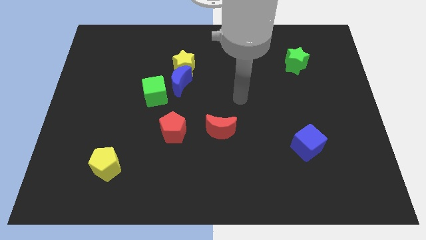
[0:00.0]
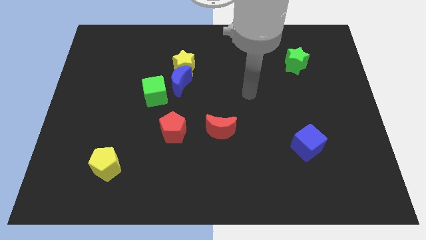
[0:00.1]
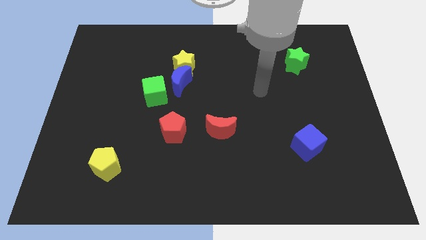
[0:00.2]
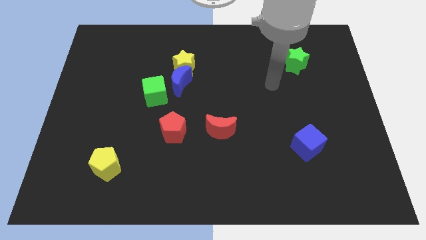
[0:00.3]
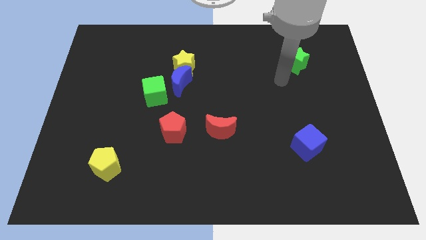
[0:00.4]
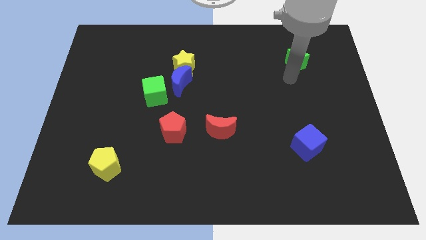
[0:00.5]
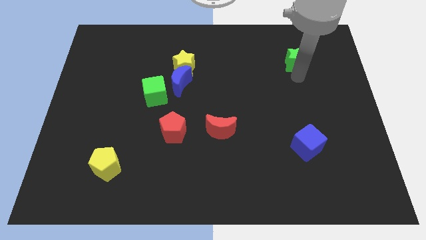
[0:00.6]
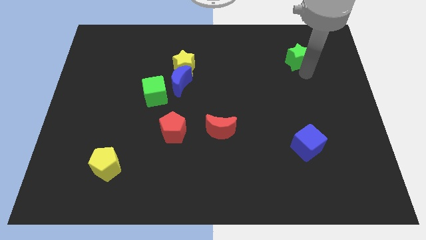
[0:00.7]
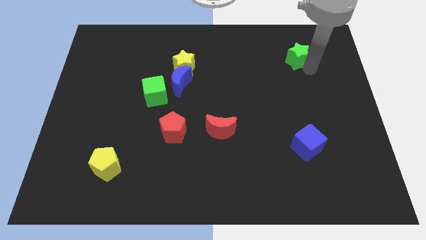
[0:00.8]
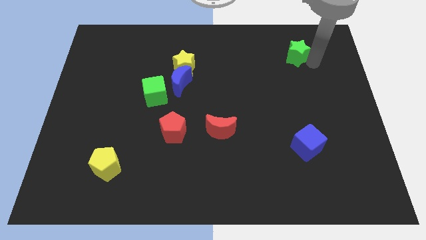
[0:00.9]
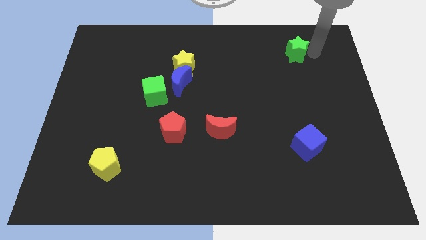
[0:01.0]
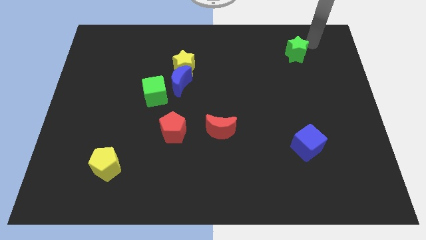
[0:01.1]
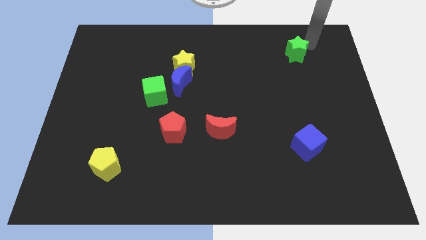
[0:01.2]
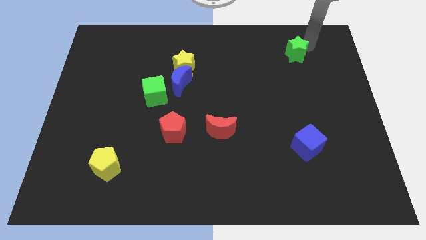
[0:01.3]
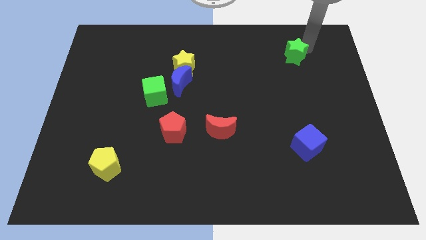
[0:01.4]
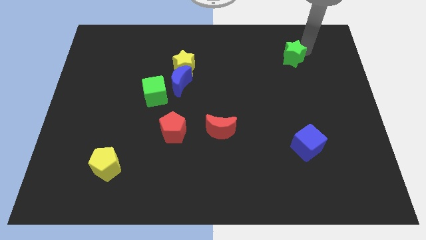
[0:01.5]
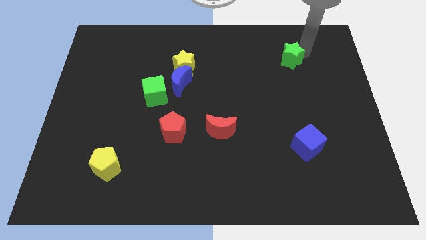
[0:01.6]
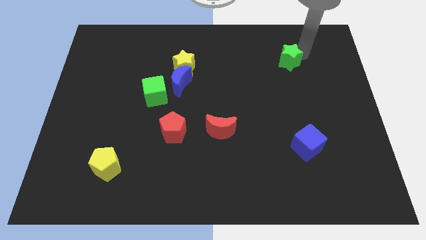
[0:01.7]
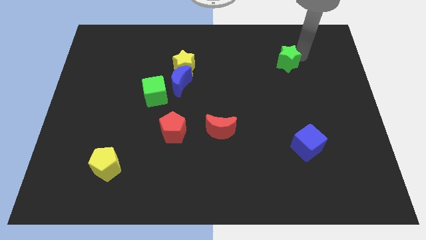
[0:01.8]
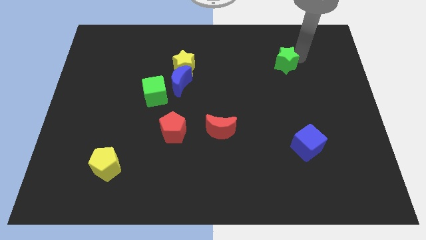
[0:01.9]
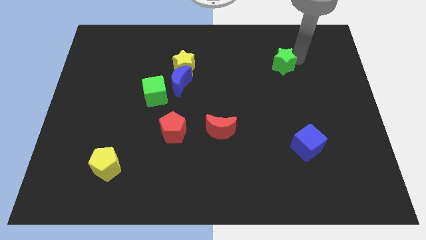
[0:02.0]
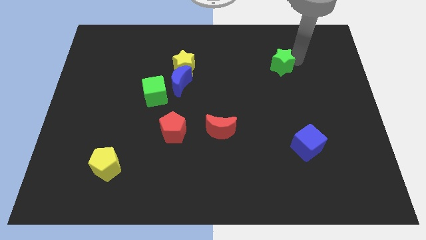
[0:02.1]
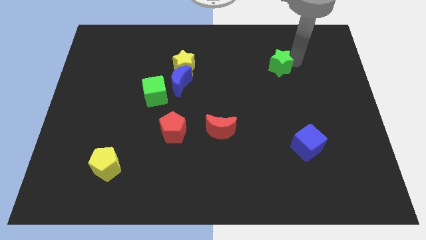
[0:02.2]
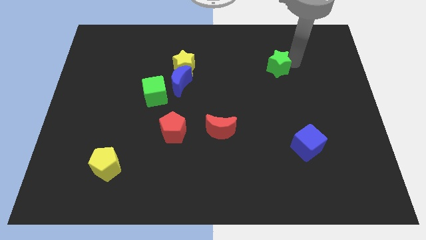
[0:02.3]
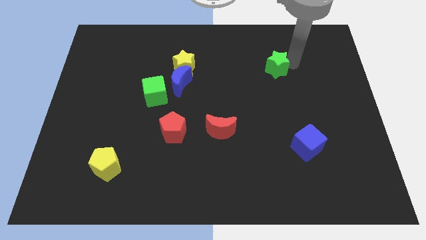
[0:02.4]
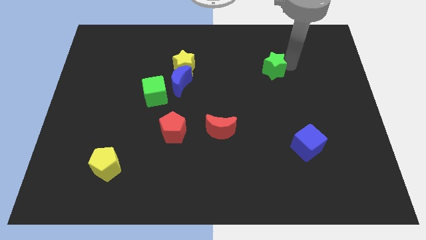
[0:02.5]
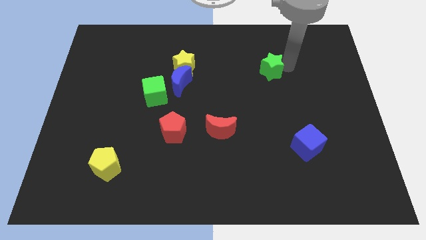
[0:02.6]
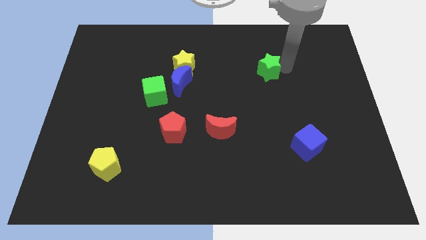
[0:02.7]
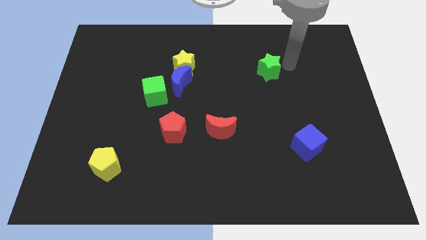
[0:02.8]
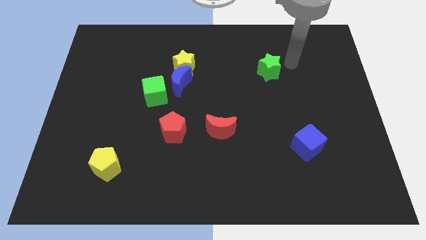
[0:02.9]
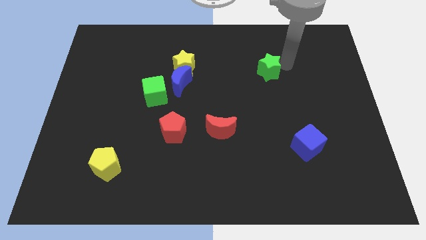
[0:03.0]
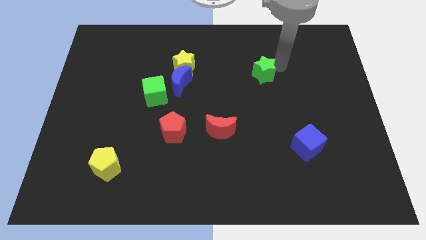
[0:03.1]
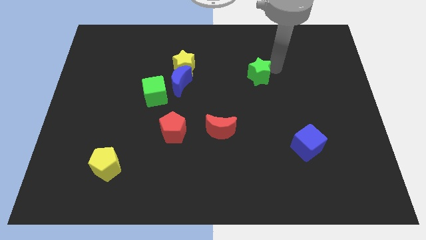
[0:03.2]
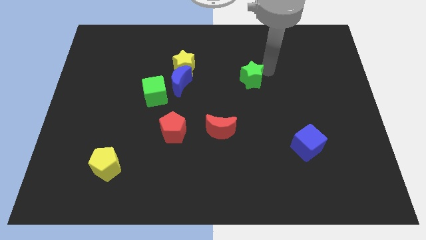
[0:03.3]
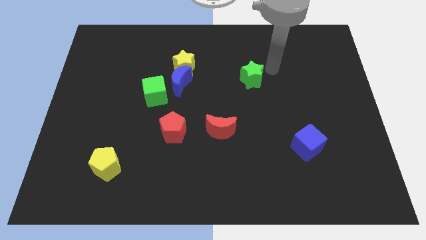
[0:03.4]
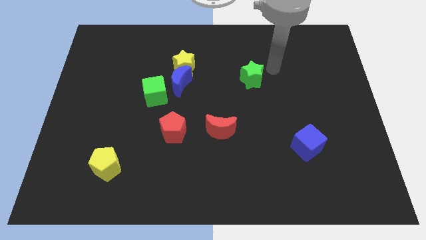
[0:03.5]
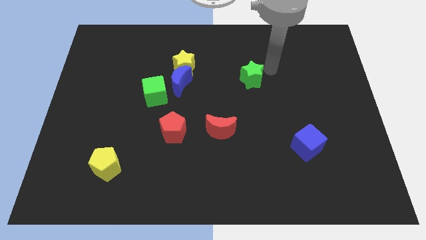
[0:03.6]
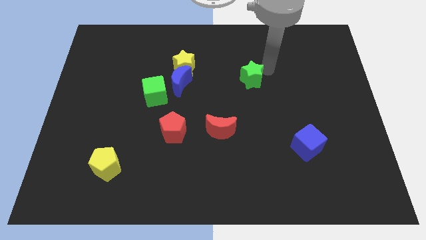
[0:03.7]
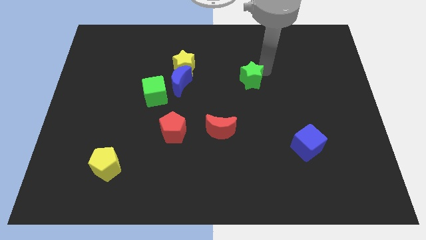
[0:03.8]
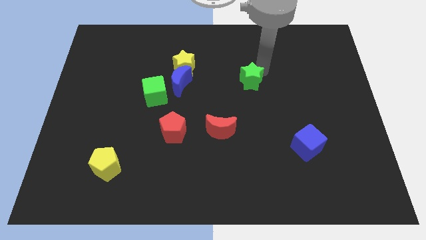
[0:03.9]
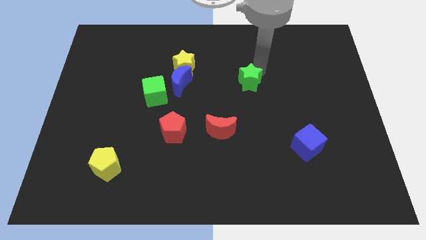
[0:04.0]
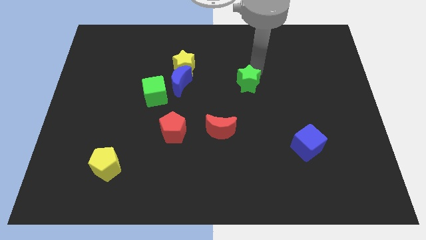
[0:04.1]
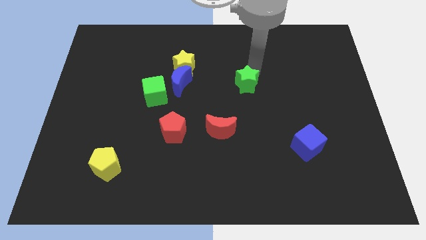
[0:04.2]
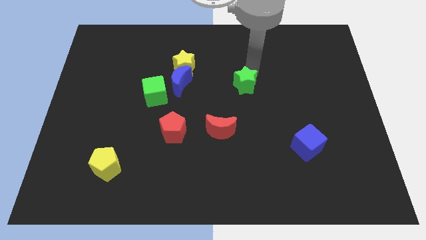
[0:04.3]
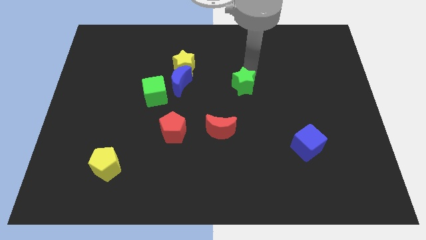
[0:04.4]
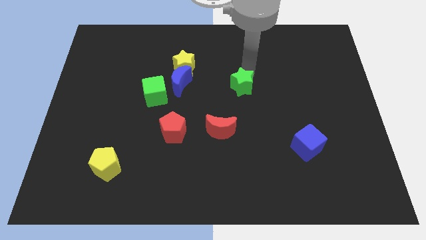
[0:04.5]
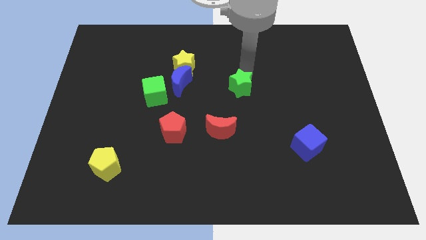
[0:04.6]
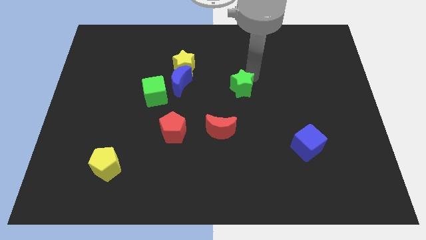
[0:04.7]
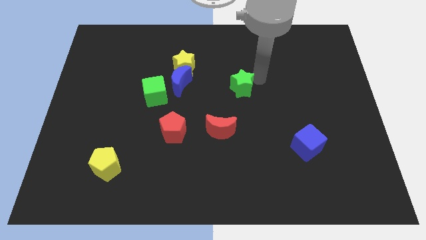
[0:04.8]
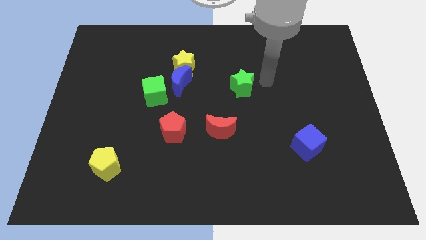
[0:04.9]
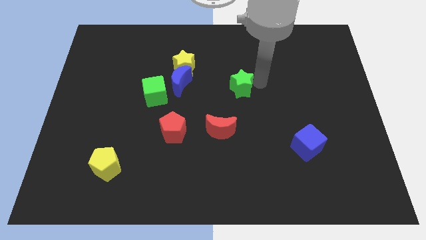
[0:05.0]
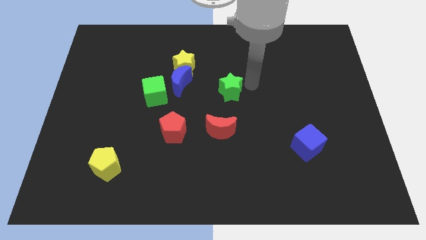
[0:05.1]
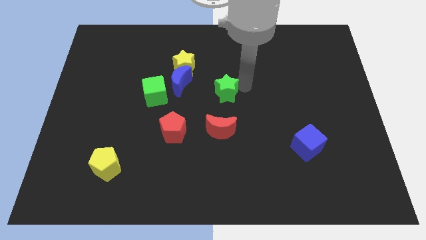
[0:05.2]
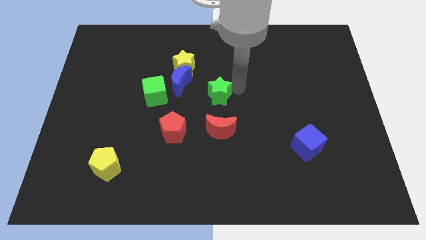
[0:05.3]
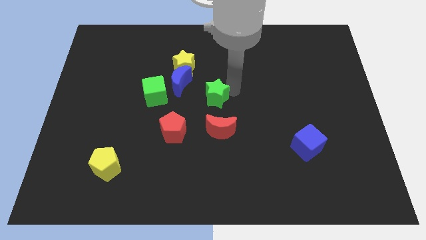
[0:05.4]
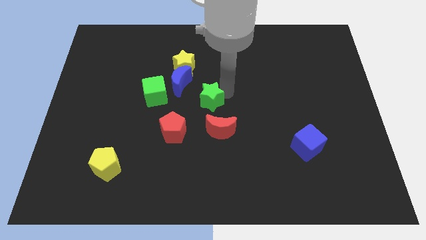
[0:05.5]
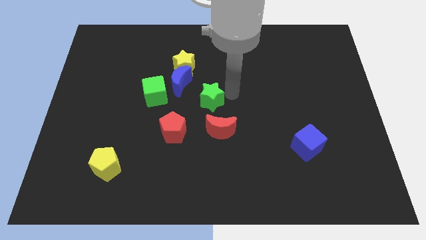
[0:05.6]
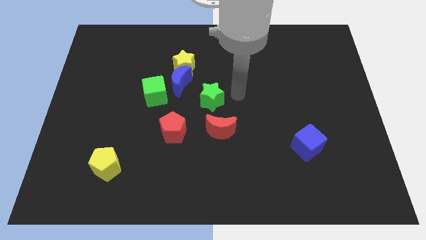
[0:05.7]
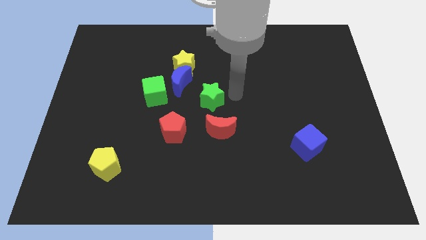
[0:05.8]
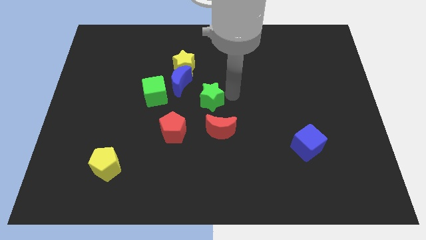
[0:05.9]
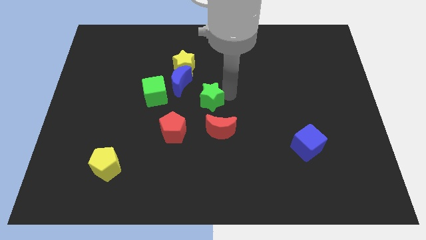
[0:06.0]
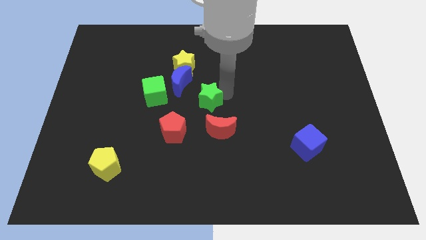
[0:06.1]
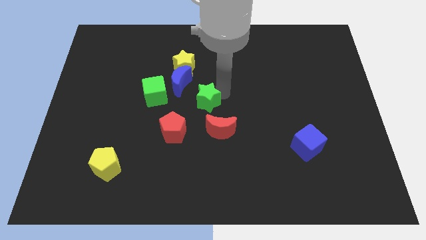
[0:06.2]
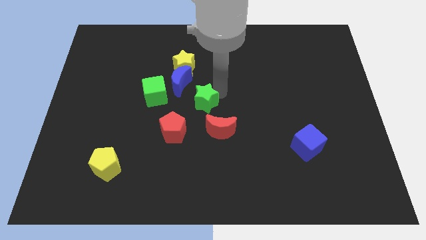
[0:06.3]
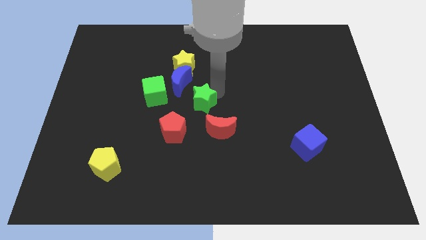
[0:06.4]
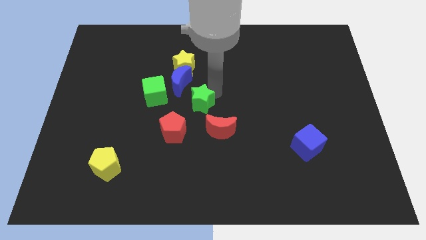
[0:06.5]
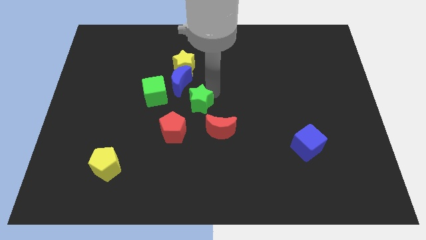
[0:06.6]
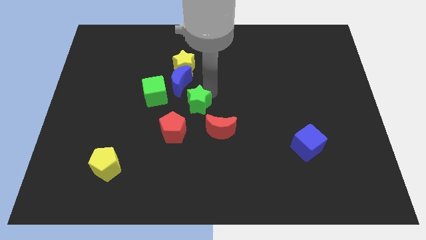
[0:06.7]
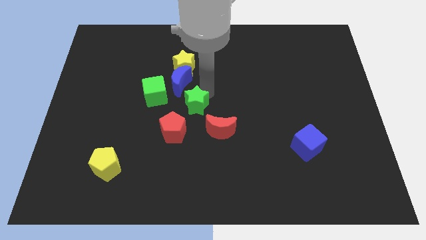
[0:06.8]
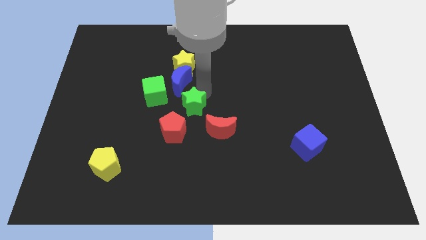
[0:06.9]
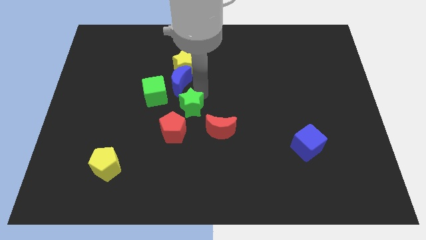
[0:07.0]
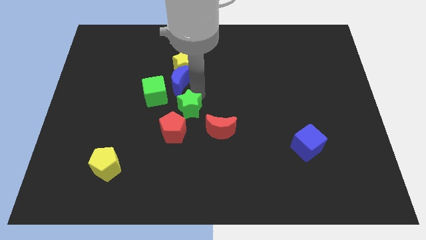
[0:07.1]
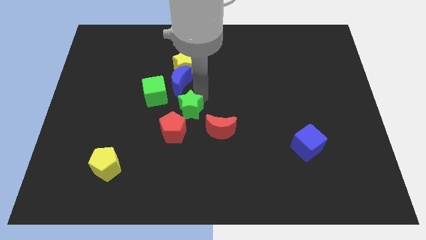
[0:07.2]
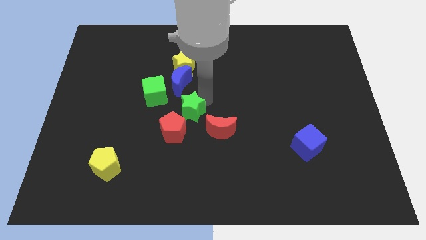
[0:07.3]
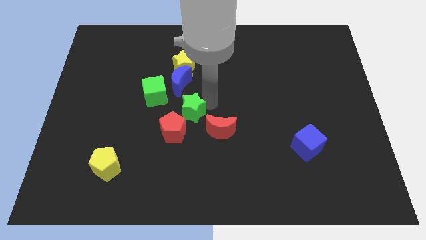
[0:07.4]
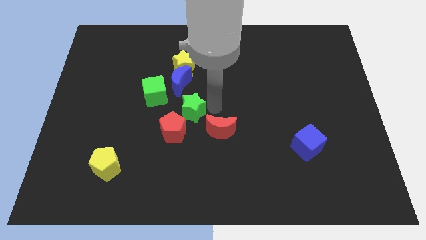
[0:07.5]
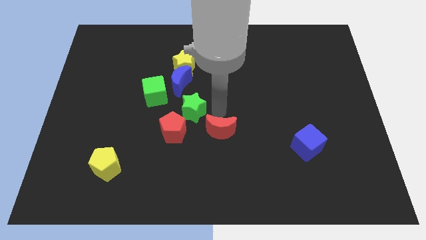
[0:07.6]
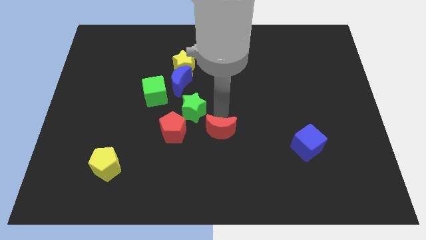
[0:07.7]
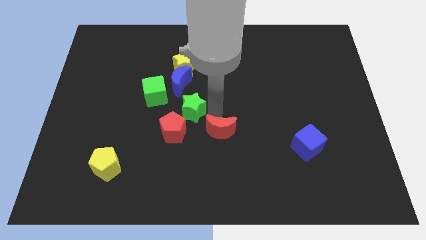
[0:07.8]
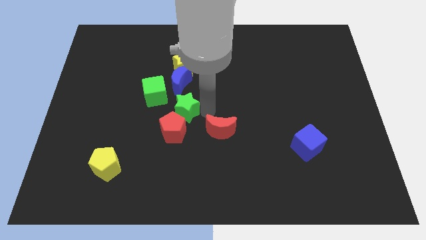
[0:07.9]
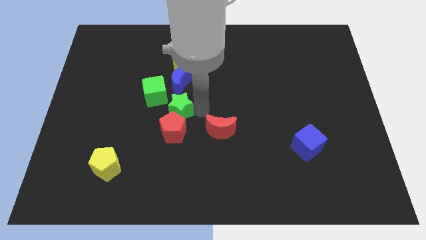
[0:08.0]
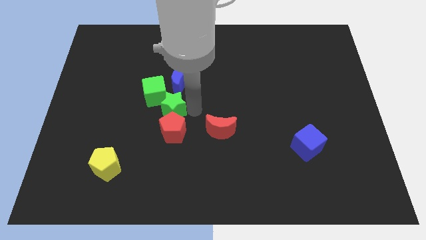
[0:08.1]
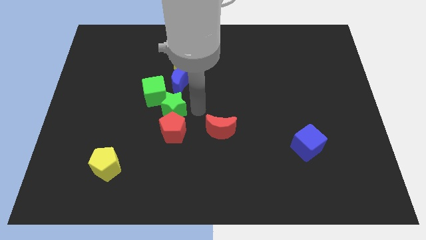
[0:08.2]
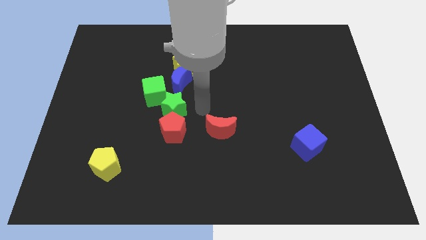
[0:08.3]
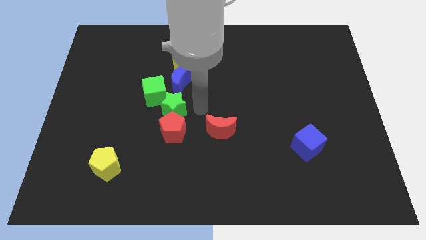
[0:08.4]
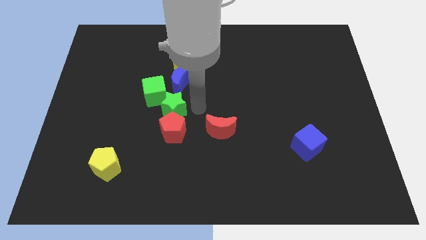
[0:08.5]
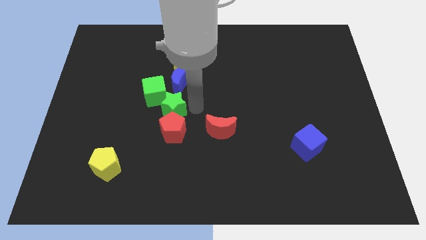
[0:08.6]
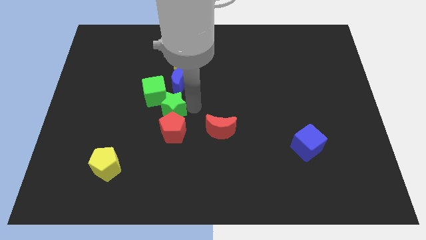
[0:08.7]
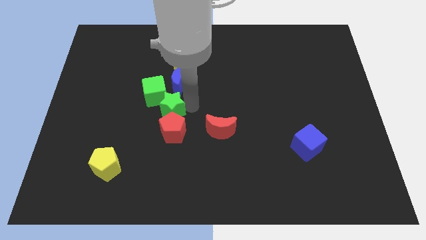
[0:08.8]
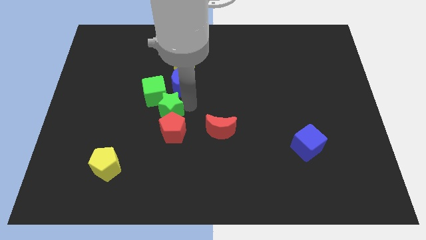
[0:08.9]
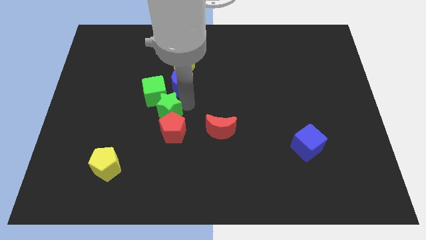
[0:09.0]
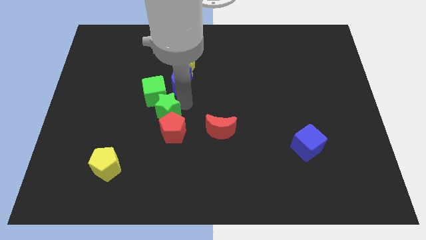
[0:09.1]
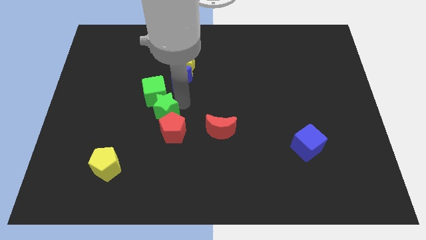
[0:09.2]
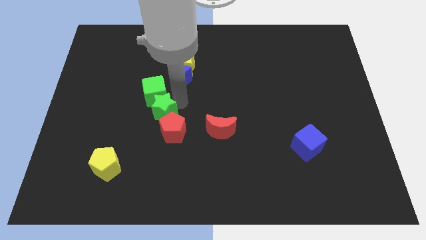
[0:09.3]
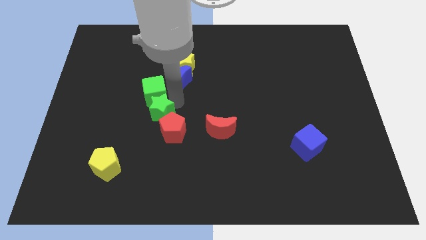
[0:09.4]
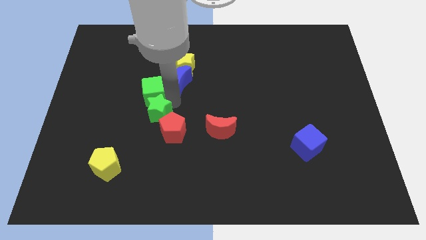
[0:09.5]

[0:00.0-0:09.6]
move the green star to the bottom left side of the green cube
